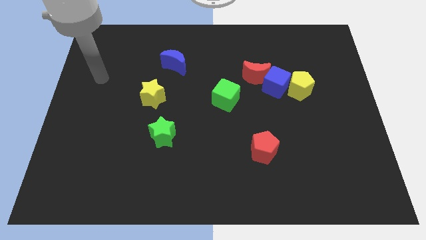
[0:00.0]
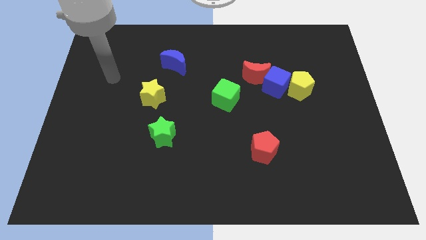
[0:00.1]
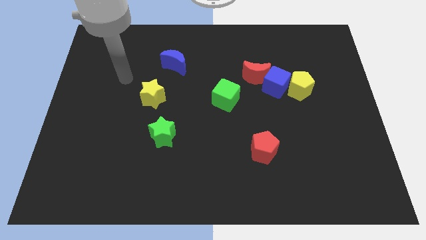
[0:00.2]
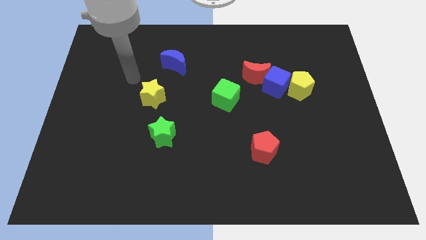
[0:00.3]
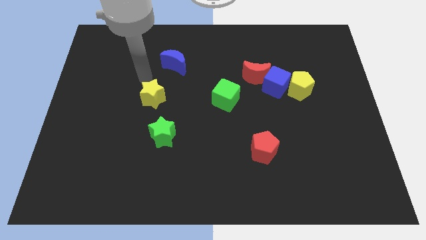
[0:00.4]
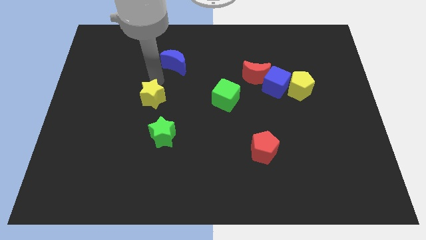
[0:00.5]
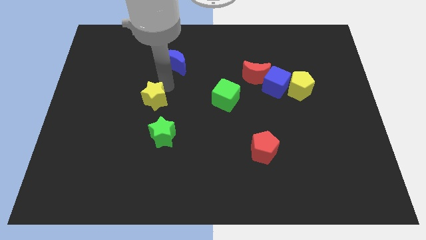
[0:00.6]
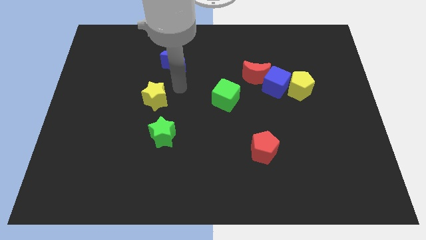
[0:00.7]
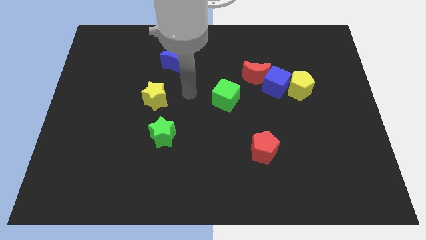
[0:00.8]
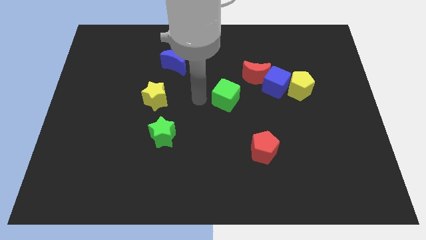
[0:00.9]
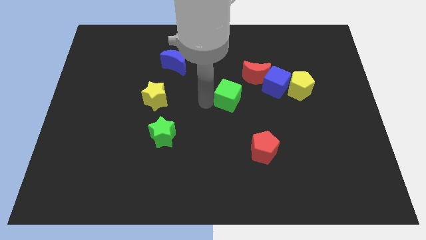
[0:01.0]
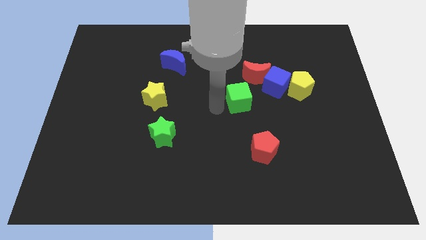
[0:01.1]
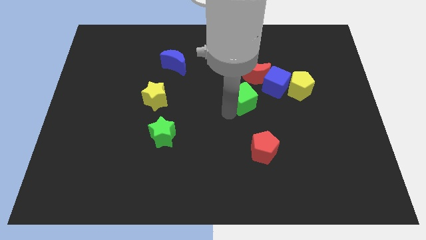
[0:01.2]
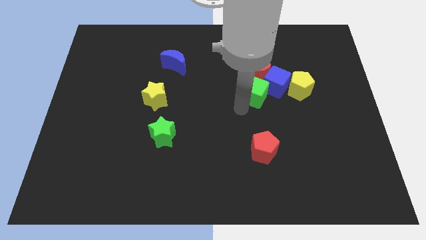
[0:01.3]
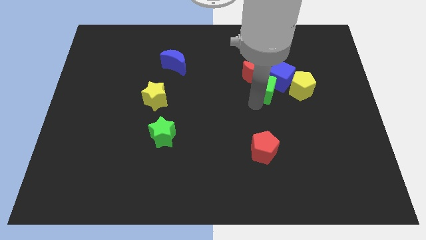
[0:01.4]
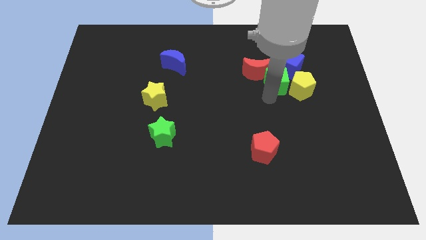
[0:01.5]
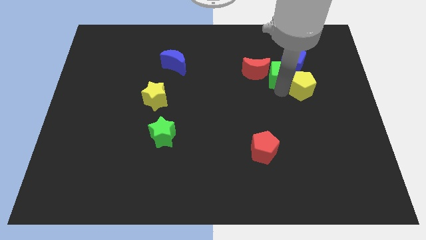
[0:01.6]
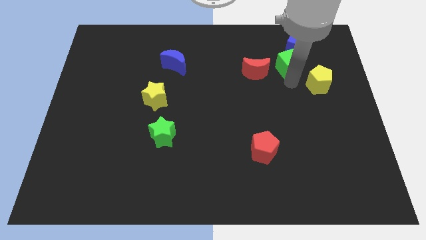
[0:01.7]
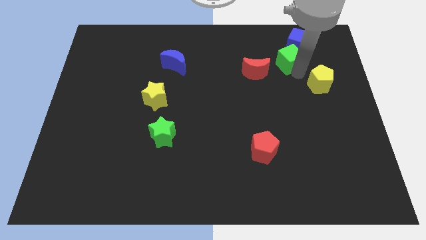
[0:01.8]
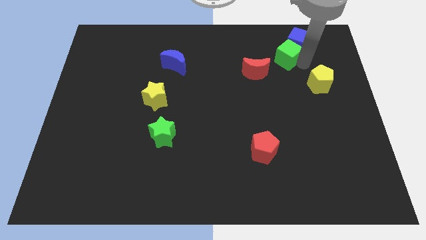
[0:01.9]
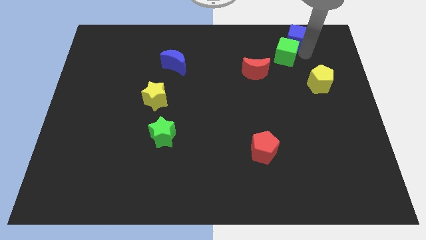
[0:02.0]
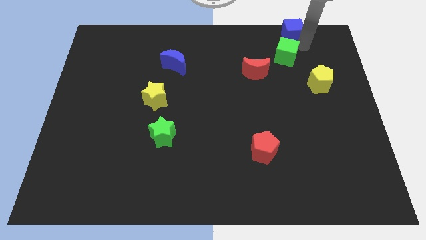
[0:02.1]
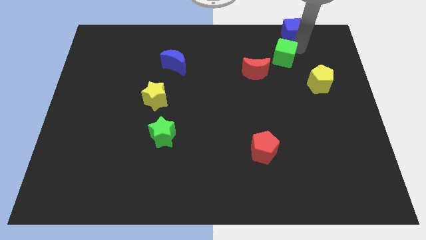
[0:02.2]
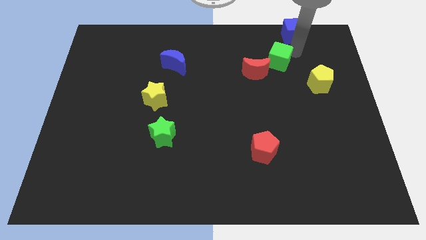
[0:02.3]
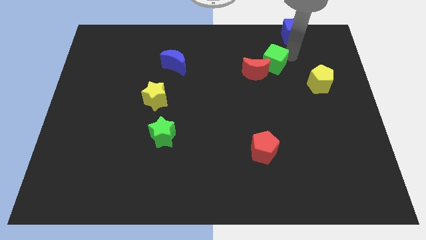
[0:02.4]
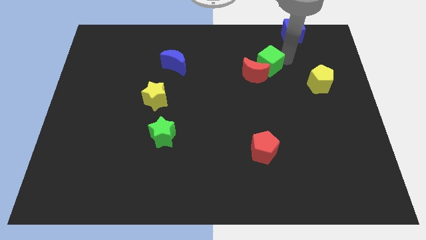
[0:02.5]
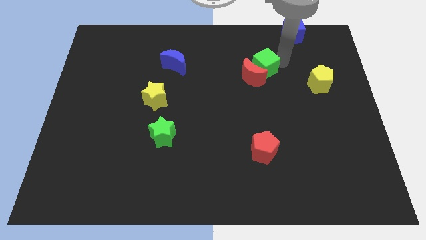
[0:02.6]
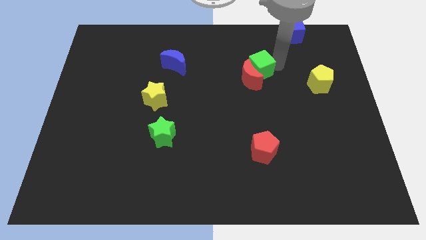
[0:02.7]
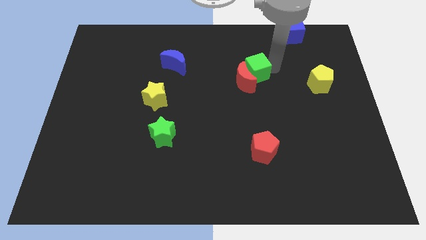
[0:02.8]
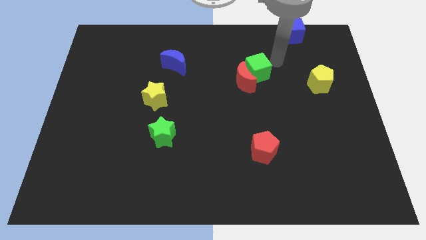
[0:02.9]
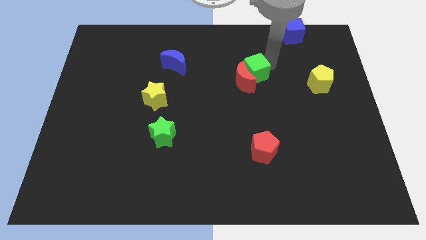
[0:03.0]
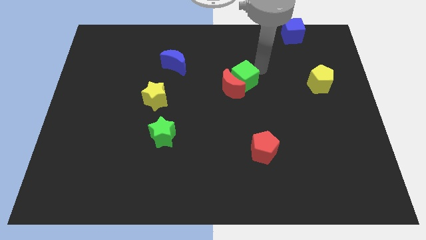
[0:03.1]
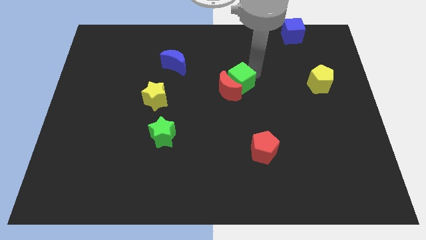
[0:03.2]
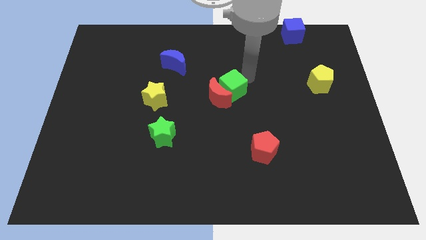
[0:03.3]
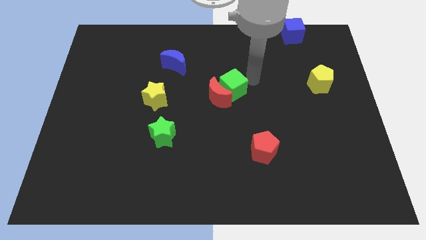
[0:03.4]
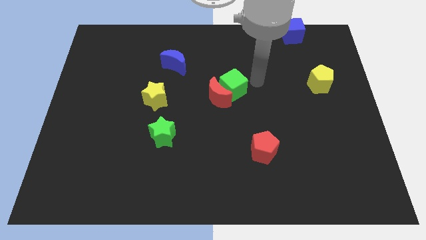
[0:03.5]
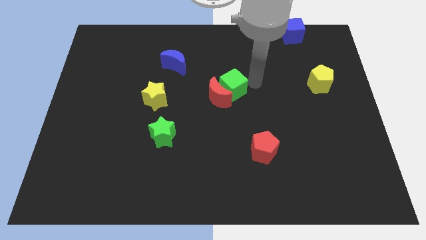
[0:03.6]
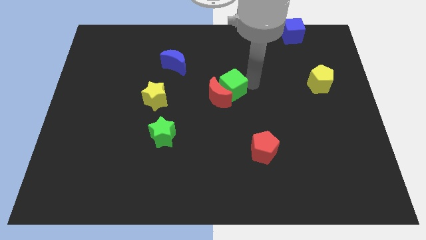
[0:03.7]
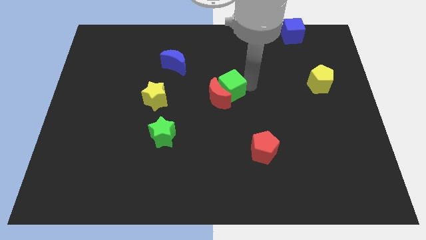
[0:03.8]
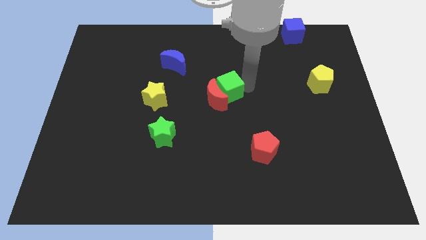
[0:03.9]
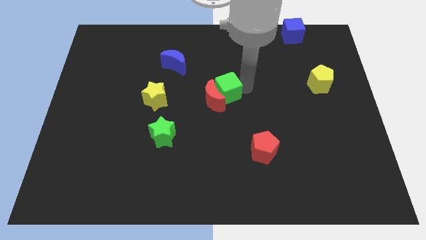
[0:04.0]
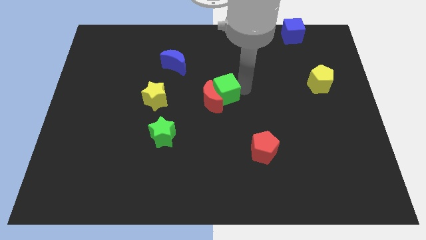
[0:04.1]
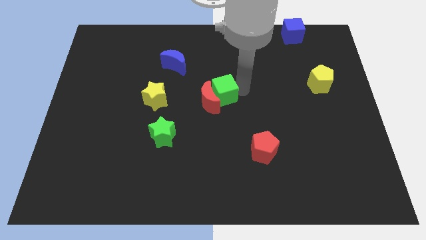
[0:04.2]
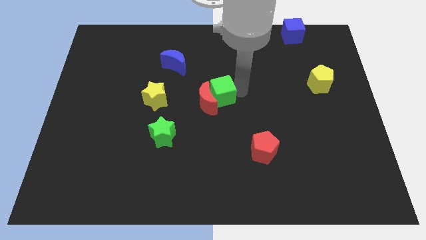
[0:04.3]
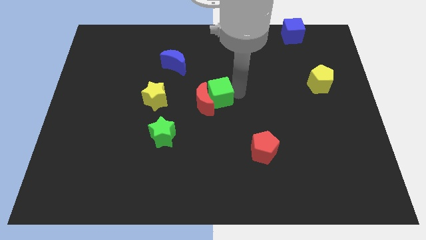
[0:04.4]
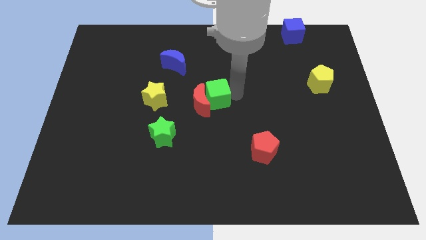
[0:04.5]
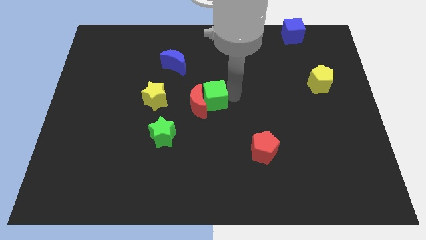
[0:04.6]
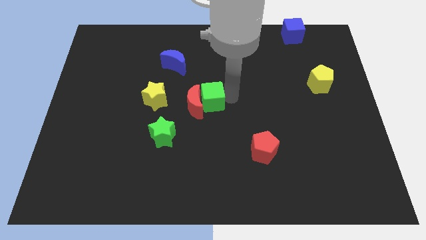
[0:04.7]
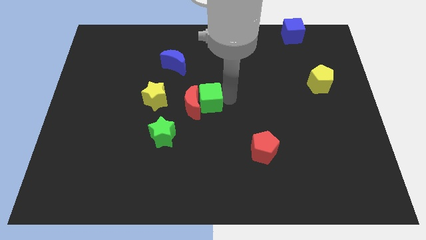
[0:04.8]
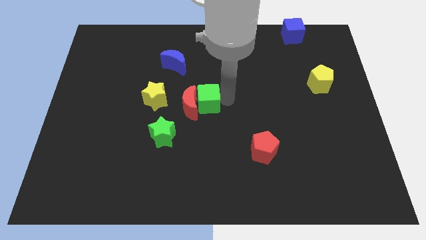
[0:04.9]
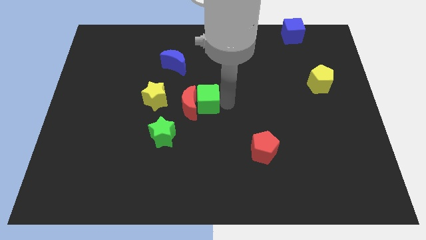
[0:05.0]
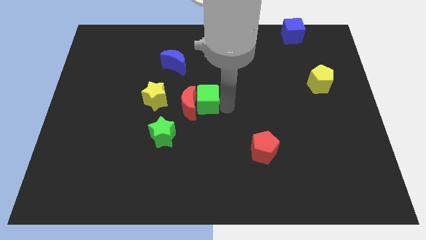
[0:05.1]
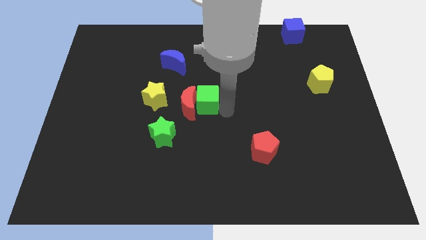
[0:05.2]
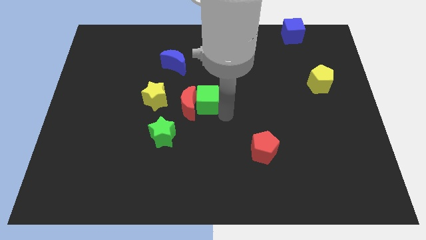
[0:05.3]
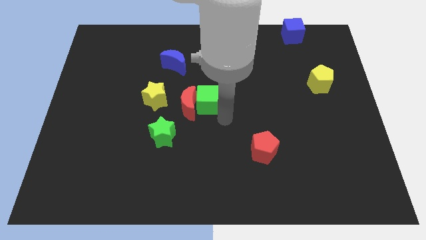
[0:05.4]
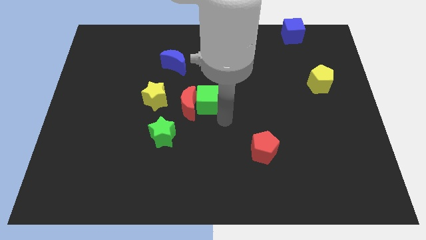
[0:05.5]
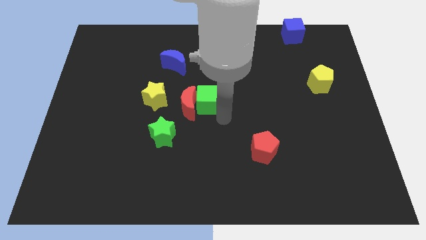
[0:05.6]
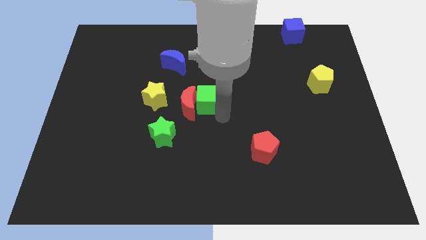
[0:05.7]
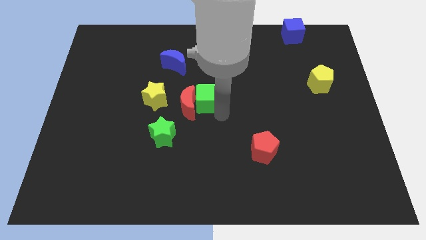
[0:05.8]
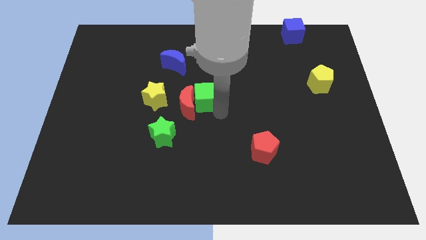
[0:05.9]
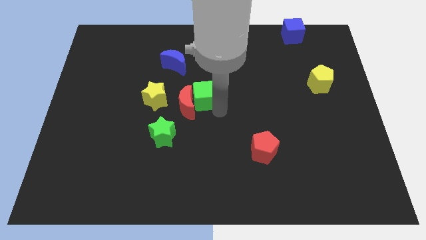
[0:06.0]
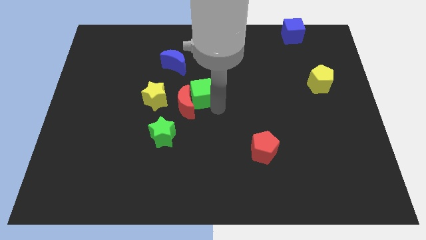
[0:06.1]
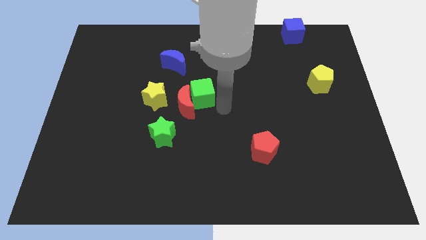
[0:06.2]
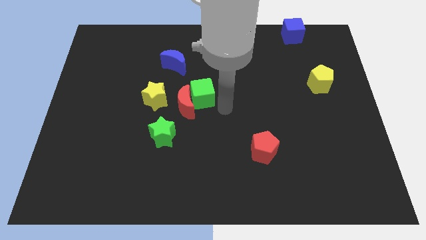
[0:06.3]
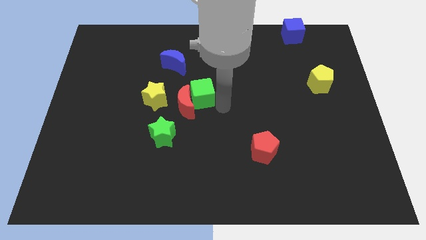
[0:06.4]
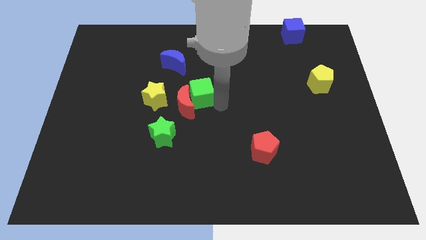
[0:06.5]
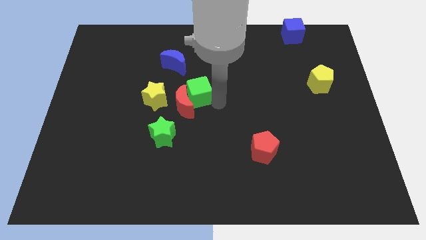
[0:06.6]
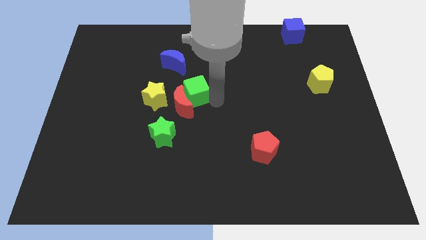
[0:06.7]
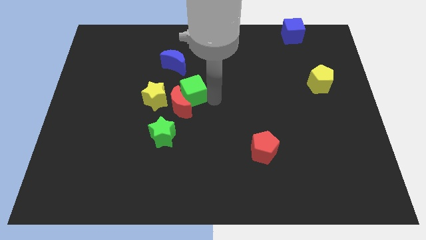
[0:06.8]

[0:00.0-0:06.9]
push the green cube to the top right of the yellow star

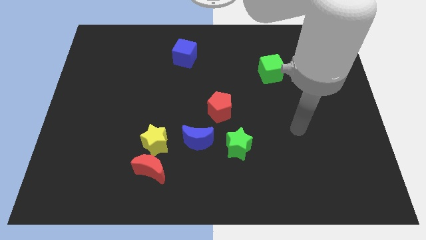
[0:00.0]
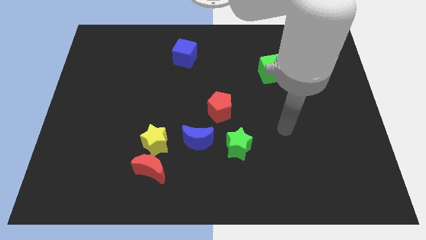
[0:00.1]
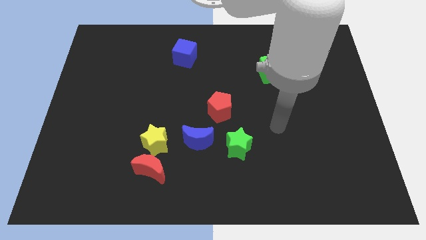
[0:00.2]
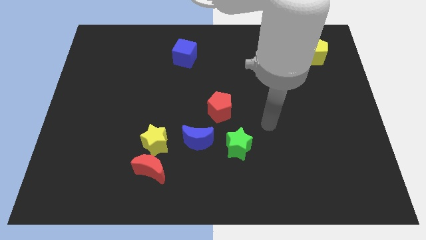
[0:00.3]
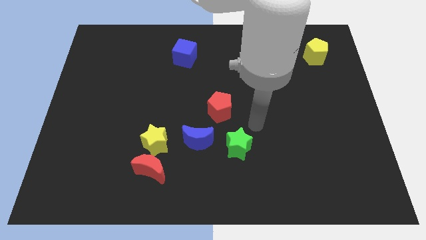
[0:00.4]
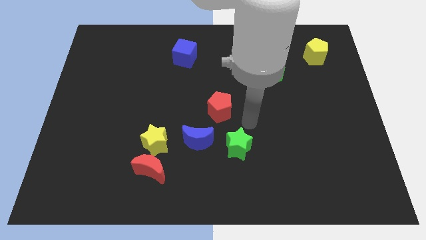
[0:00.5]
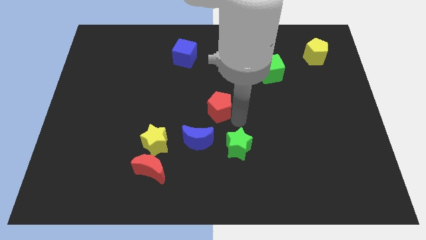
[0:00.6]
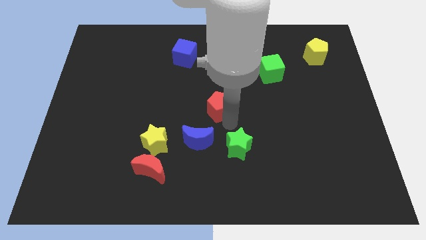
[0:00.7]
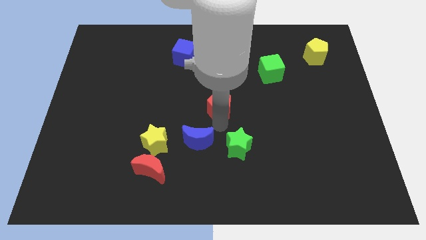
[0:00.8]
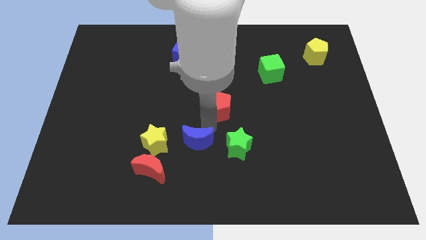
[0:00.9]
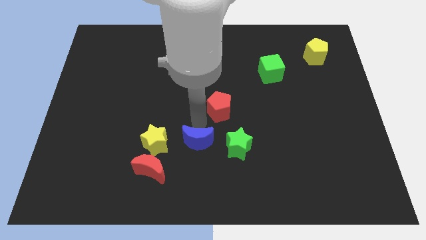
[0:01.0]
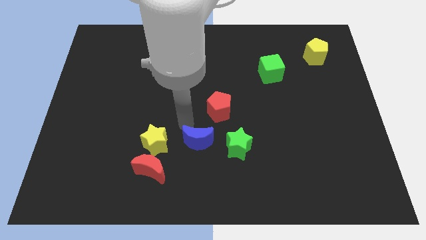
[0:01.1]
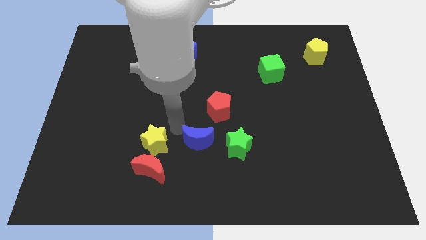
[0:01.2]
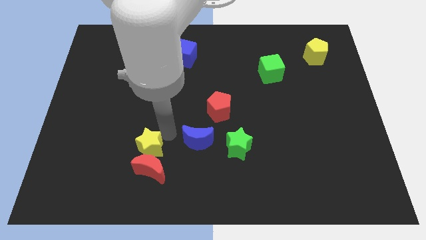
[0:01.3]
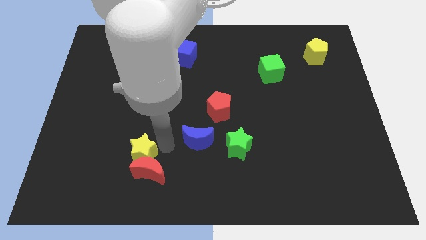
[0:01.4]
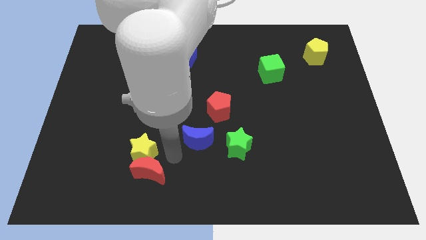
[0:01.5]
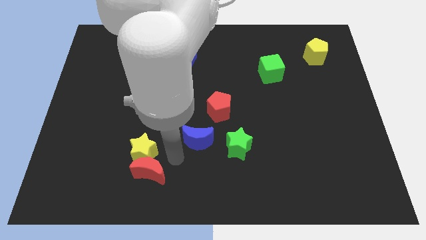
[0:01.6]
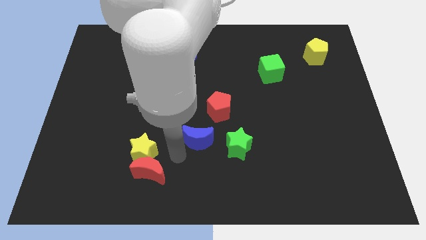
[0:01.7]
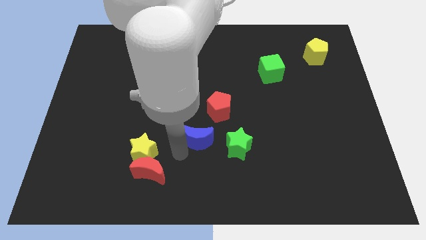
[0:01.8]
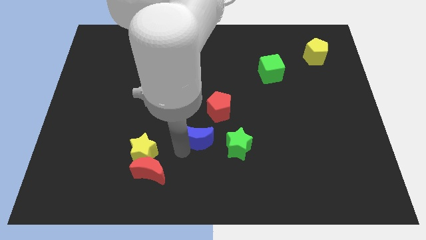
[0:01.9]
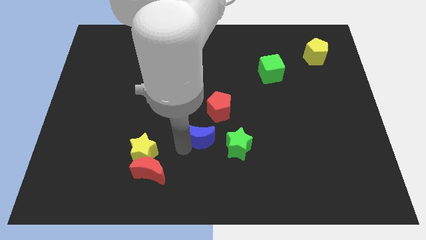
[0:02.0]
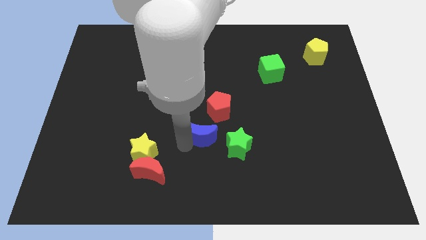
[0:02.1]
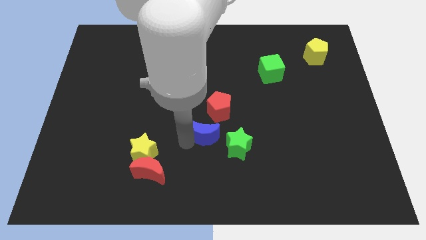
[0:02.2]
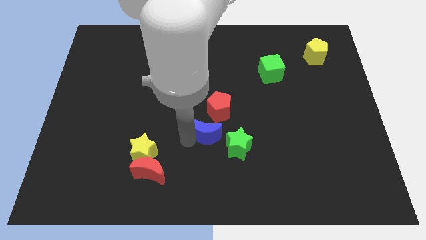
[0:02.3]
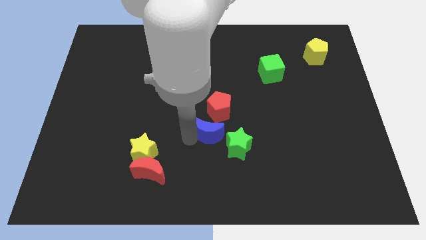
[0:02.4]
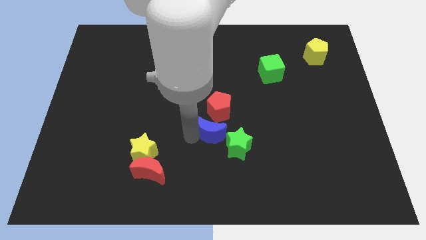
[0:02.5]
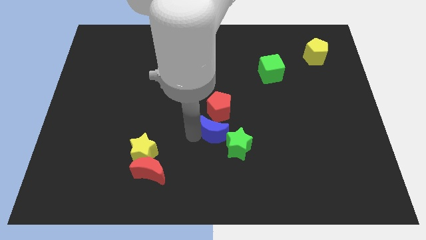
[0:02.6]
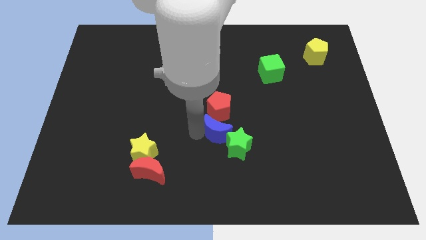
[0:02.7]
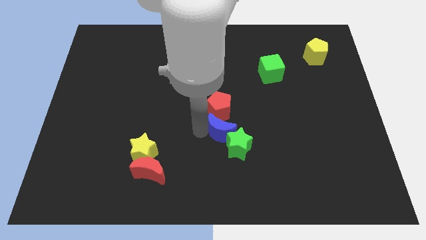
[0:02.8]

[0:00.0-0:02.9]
slide the blue moon above the green star
